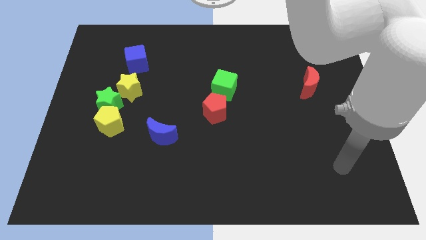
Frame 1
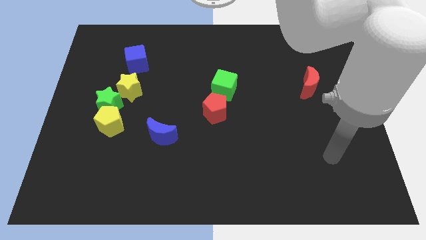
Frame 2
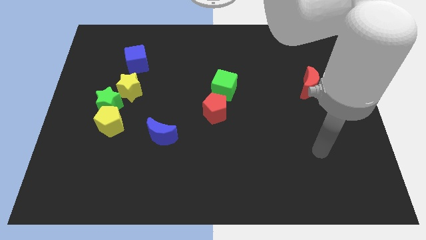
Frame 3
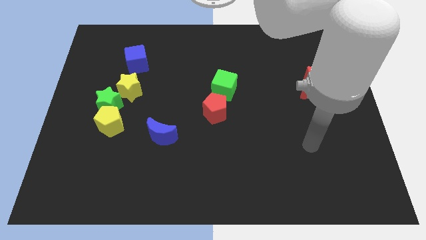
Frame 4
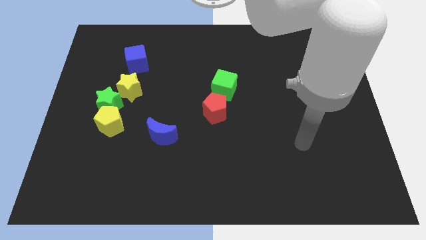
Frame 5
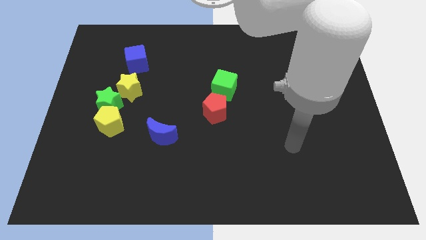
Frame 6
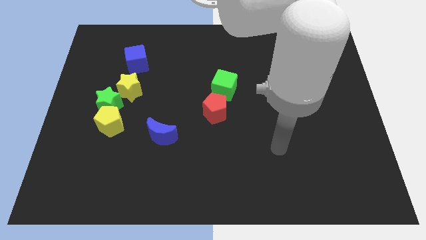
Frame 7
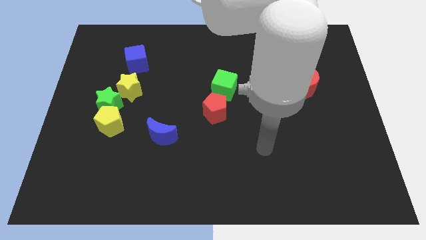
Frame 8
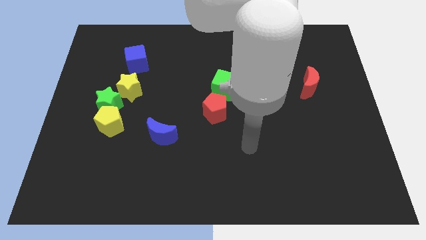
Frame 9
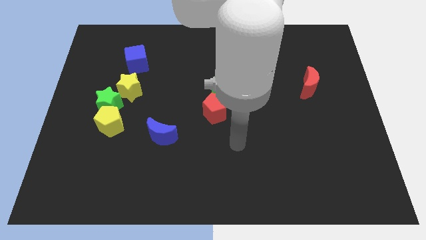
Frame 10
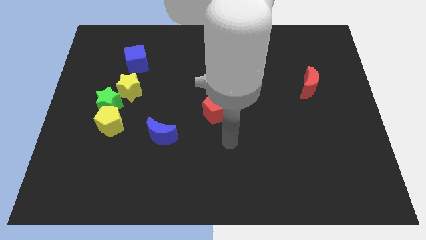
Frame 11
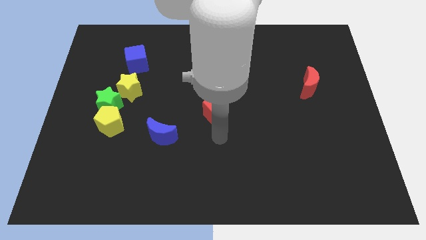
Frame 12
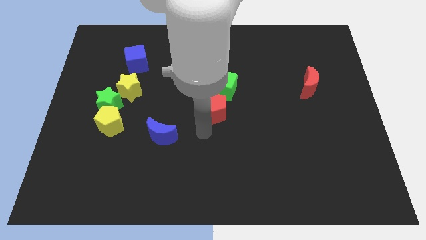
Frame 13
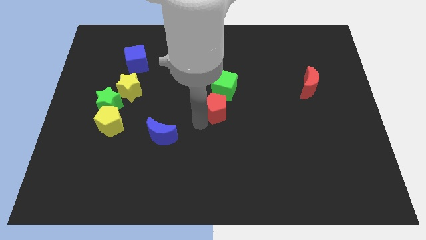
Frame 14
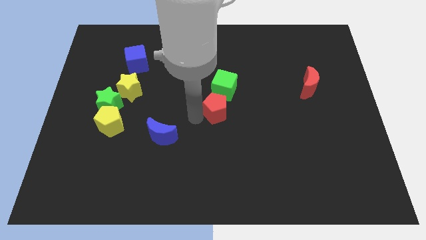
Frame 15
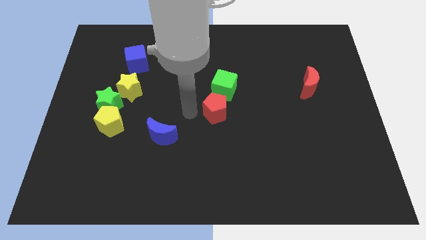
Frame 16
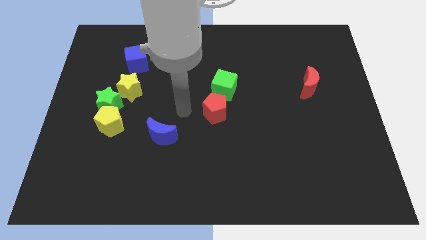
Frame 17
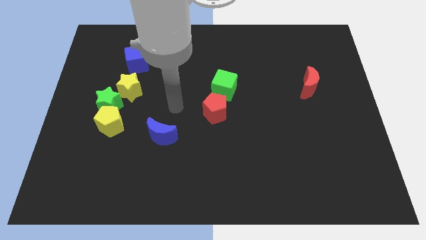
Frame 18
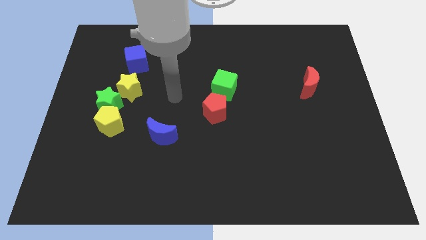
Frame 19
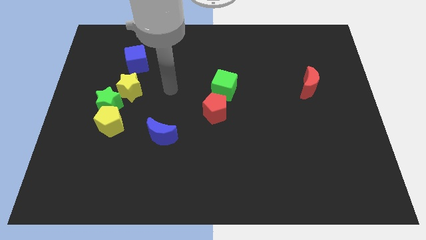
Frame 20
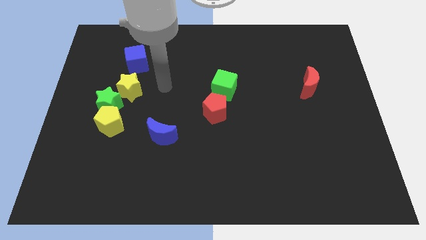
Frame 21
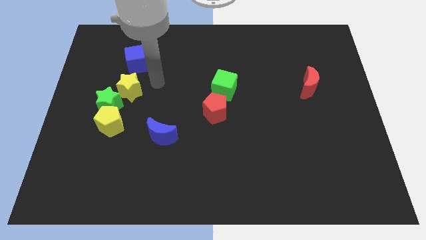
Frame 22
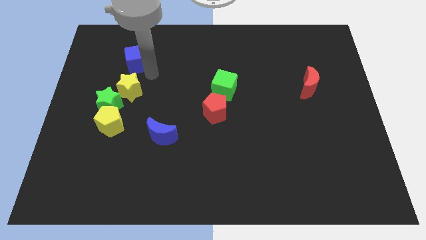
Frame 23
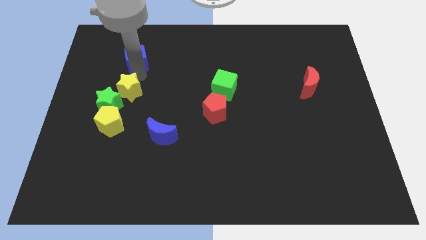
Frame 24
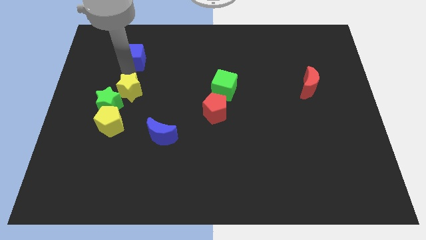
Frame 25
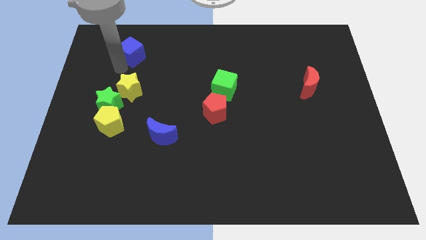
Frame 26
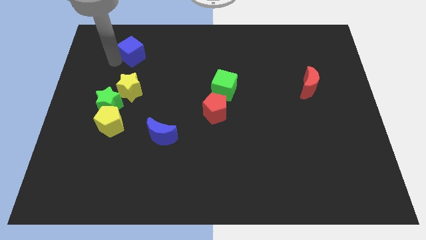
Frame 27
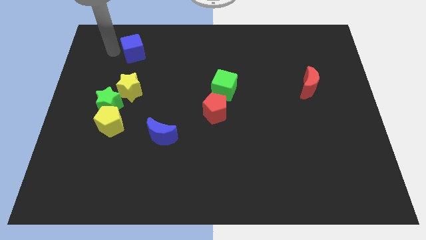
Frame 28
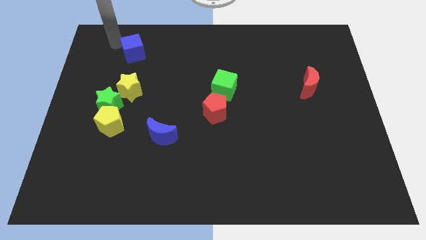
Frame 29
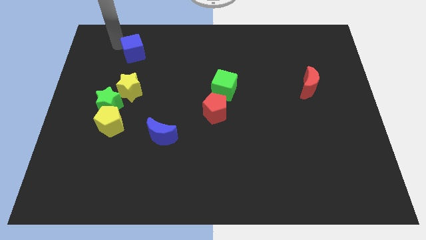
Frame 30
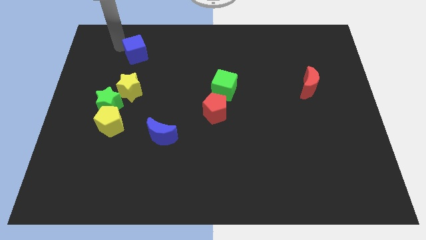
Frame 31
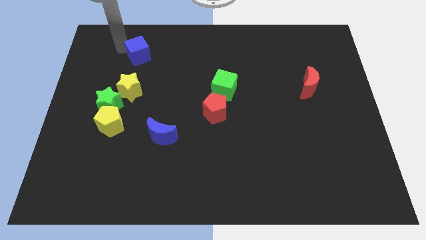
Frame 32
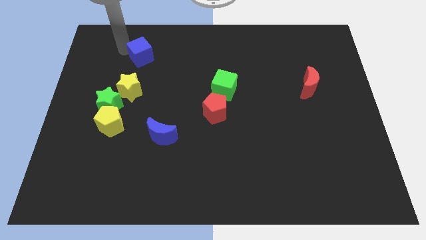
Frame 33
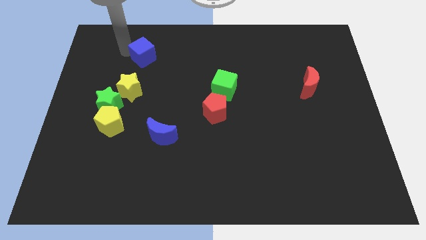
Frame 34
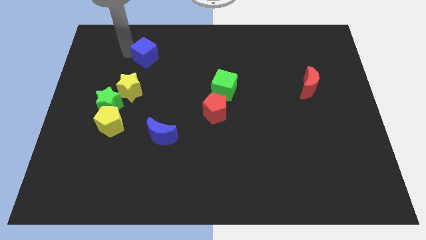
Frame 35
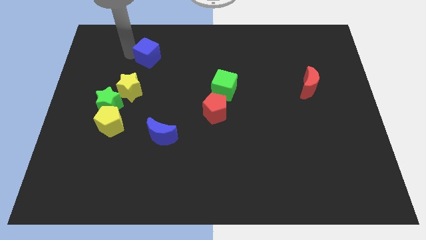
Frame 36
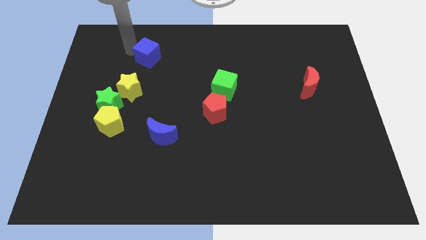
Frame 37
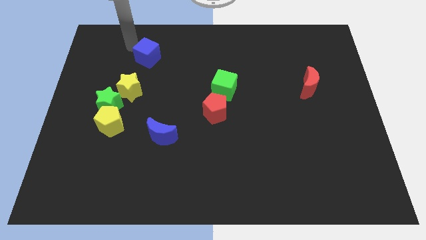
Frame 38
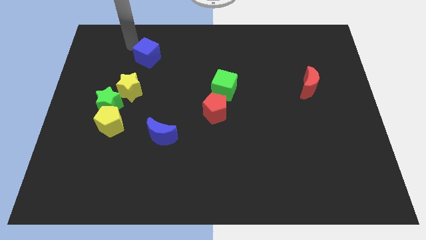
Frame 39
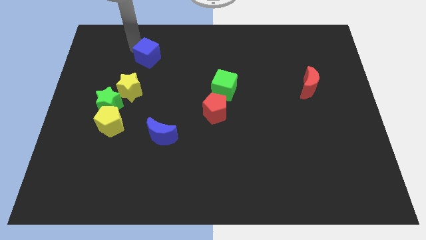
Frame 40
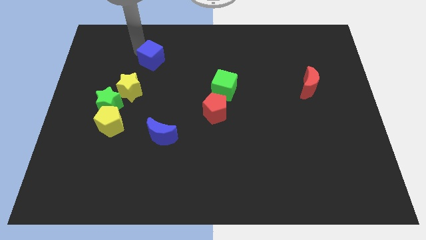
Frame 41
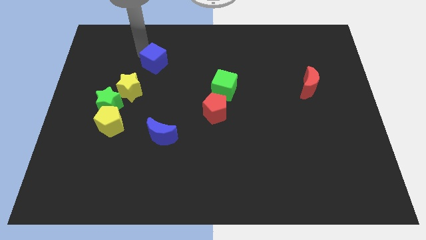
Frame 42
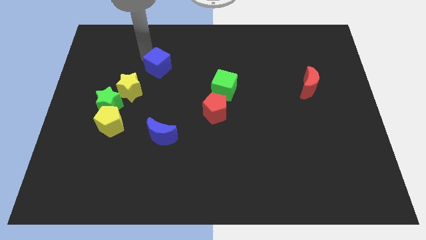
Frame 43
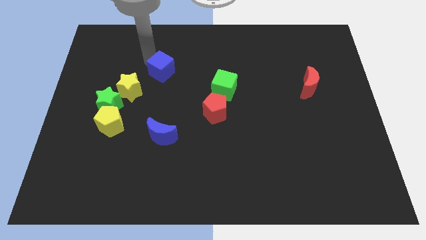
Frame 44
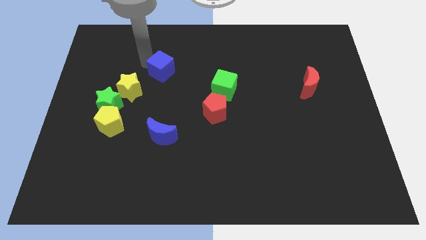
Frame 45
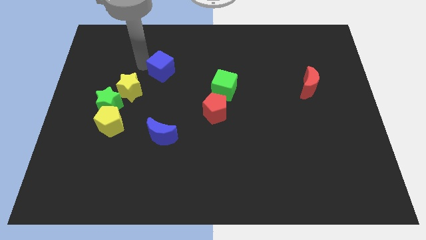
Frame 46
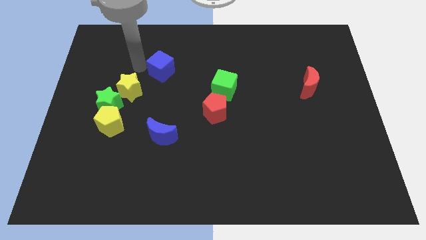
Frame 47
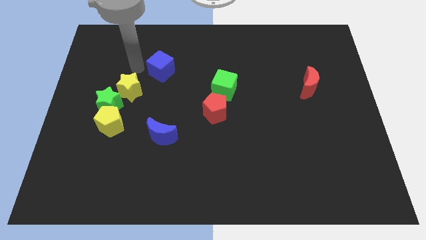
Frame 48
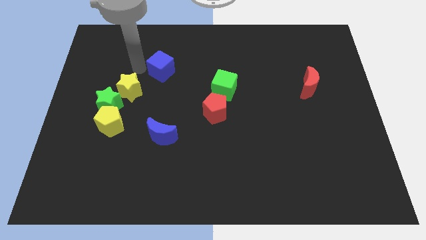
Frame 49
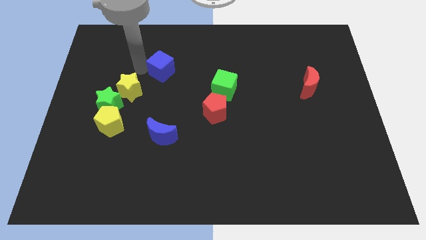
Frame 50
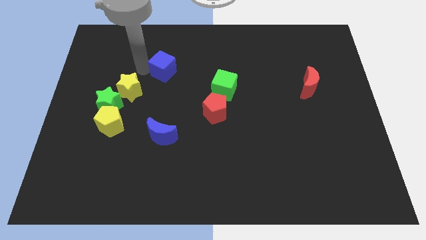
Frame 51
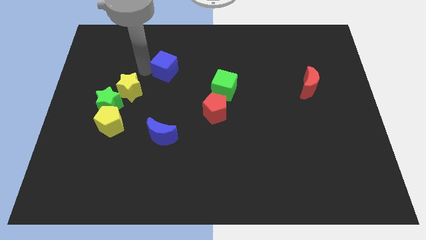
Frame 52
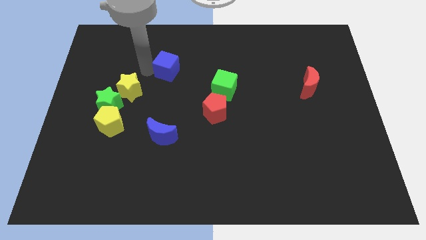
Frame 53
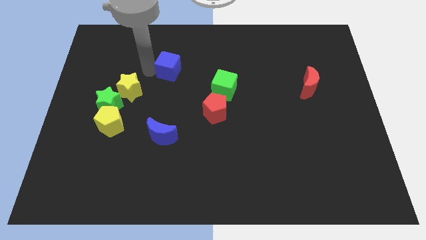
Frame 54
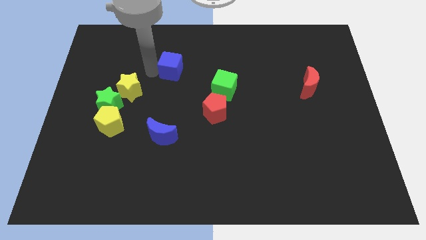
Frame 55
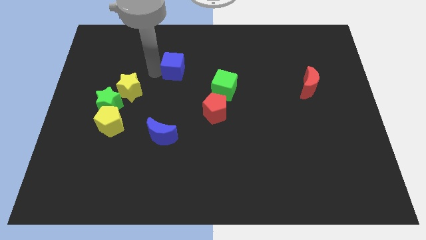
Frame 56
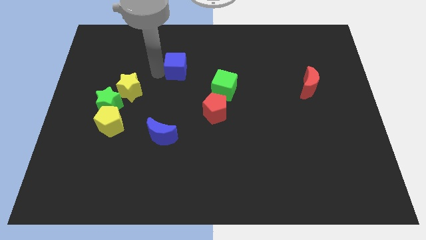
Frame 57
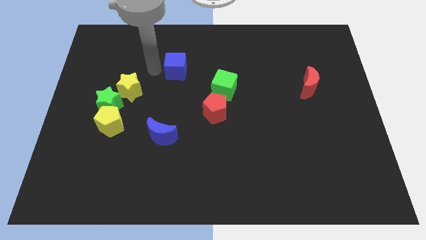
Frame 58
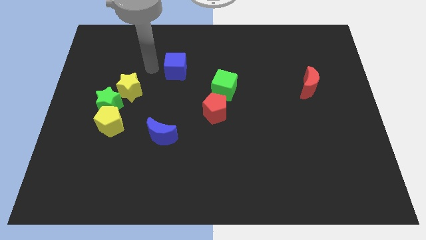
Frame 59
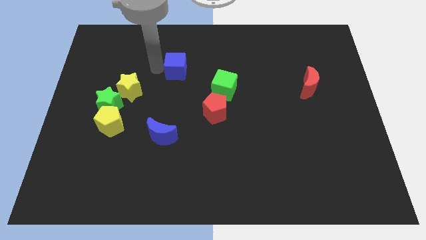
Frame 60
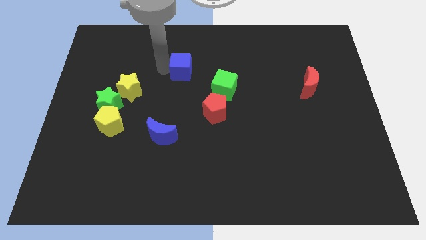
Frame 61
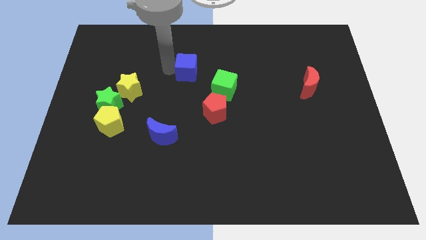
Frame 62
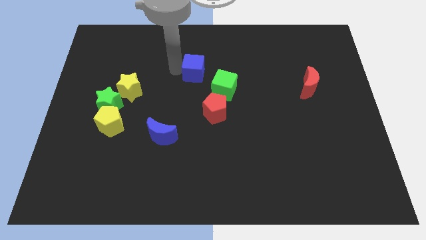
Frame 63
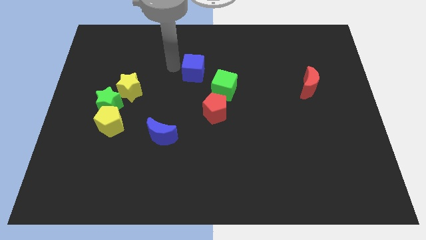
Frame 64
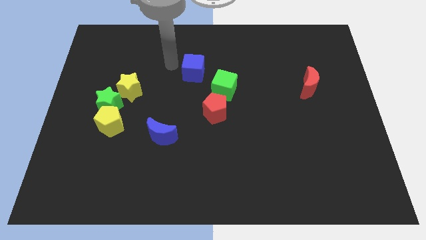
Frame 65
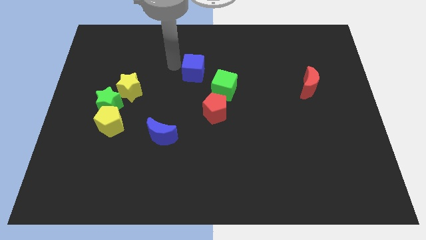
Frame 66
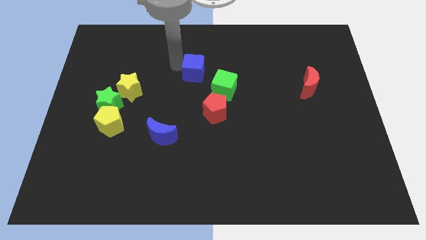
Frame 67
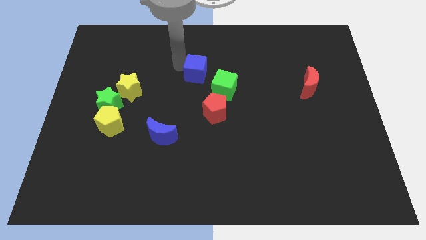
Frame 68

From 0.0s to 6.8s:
push the blue cube to the top side of the red pentagon

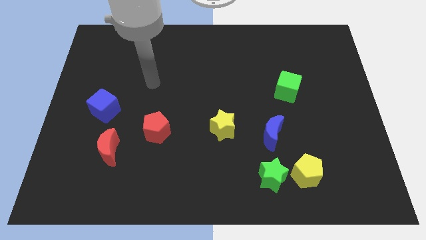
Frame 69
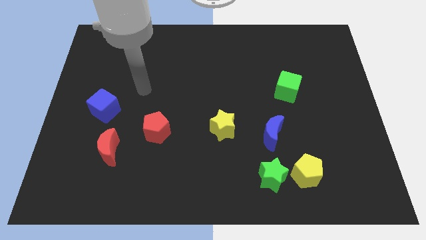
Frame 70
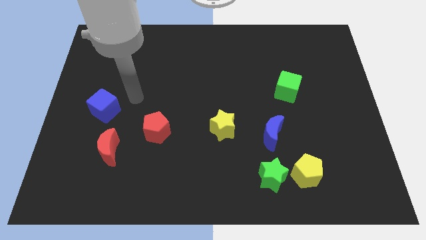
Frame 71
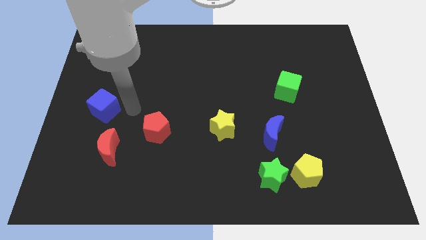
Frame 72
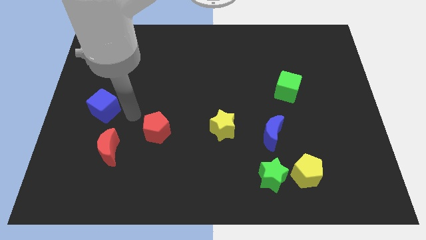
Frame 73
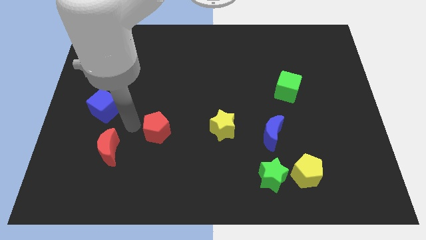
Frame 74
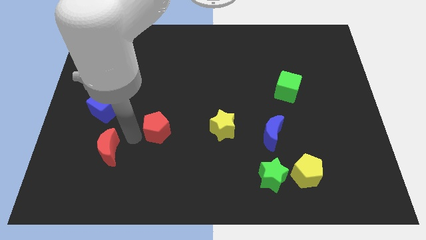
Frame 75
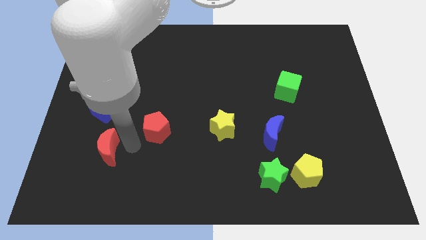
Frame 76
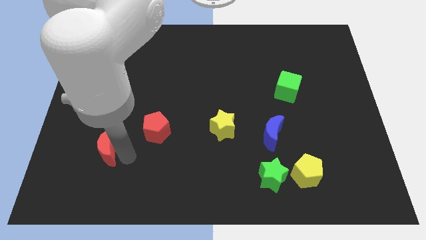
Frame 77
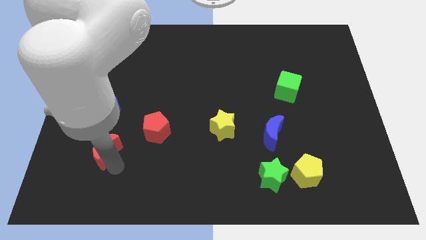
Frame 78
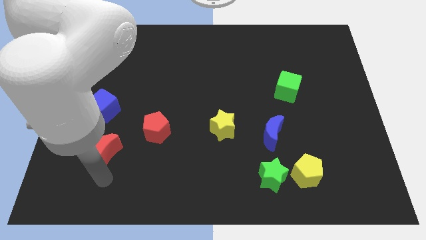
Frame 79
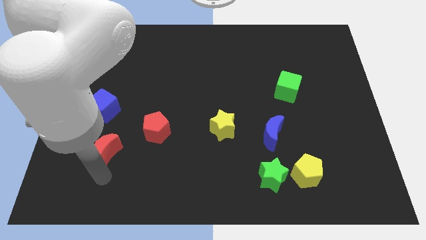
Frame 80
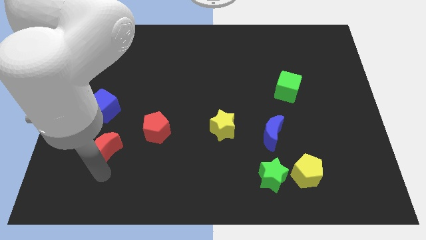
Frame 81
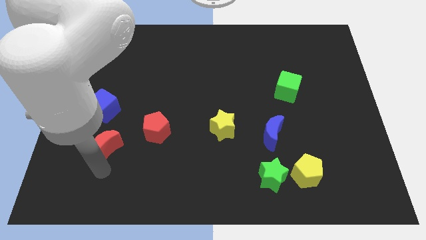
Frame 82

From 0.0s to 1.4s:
put the red moon left of the red pentagon

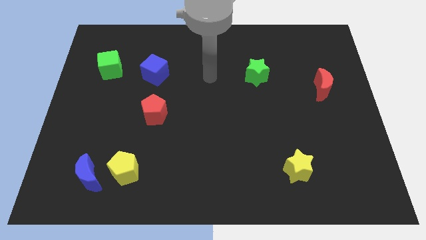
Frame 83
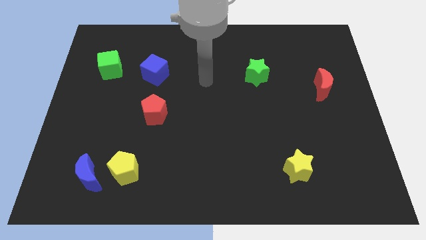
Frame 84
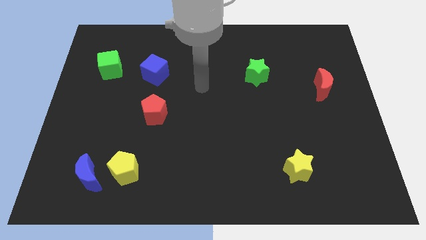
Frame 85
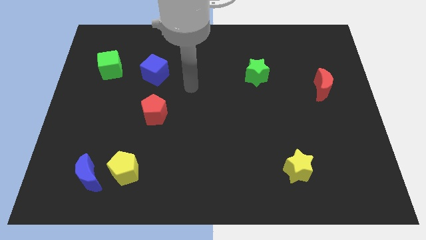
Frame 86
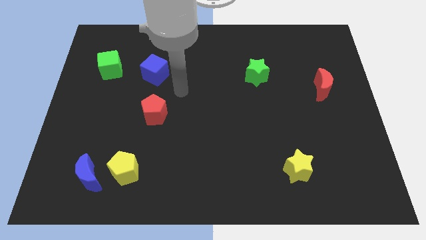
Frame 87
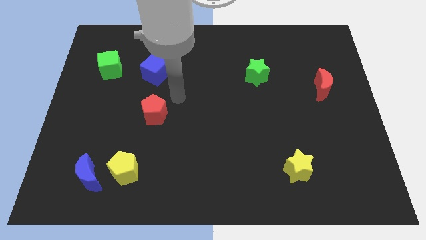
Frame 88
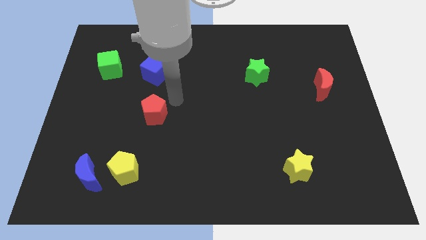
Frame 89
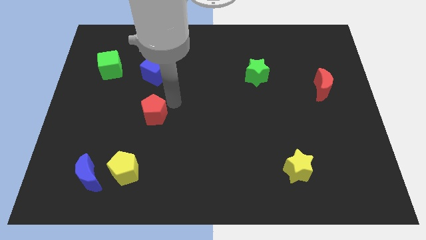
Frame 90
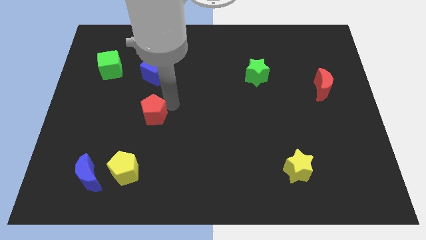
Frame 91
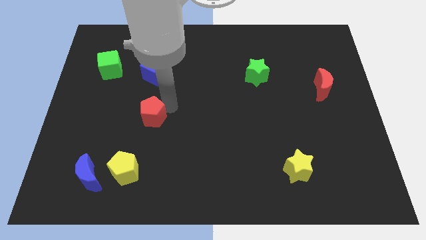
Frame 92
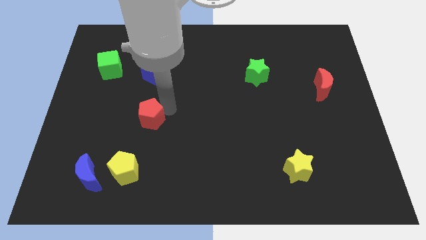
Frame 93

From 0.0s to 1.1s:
push the red pentagon above the yellow pentagon
